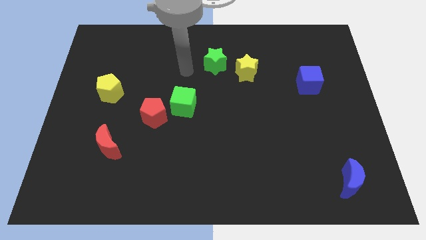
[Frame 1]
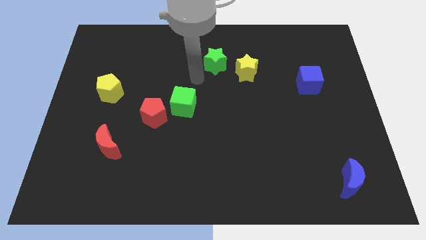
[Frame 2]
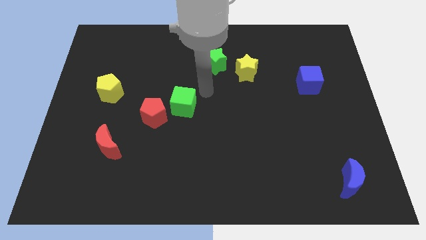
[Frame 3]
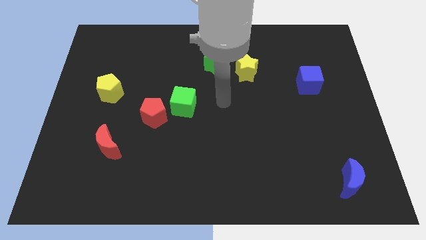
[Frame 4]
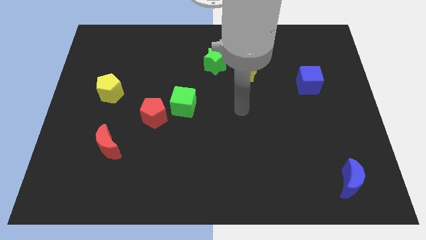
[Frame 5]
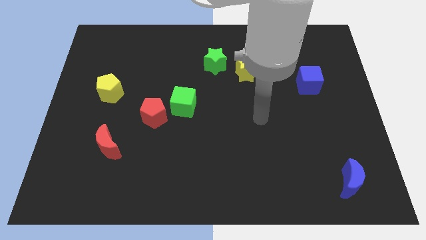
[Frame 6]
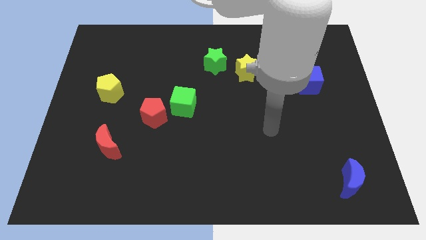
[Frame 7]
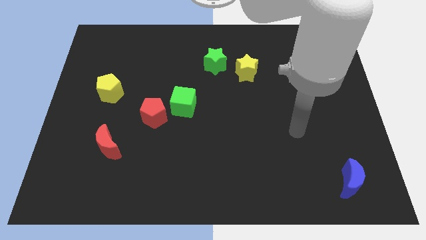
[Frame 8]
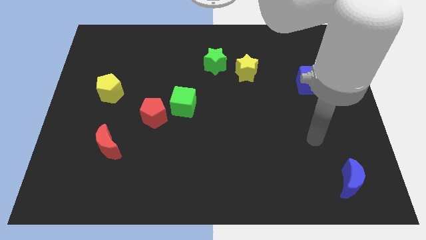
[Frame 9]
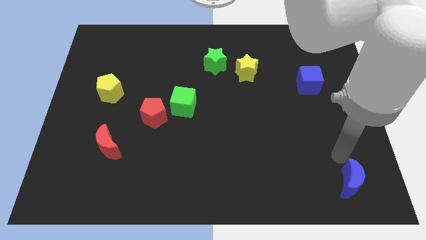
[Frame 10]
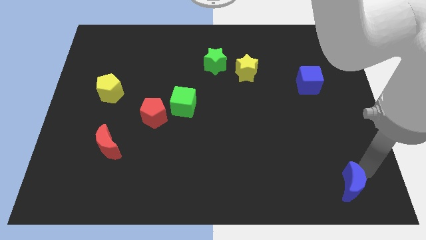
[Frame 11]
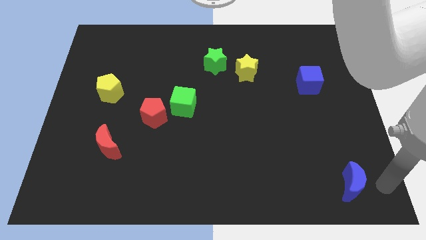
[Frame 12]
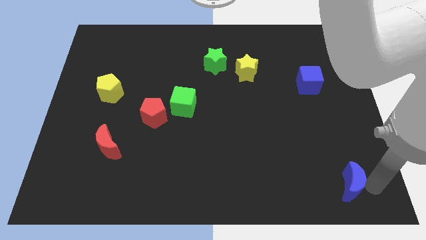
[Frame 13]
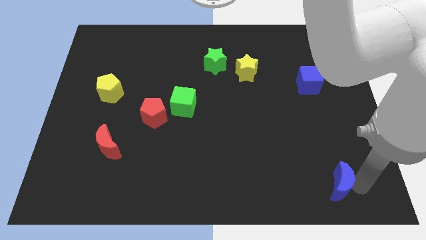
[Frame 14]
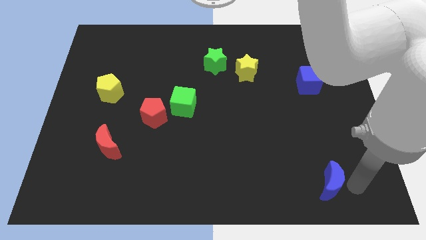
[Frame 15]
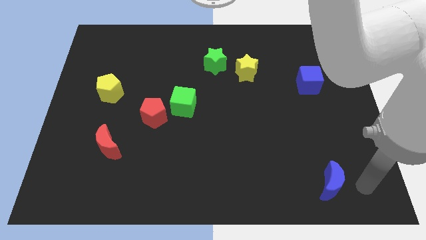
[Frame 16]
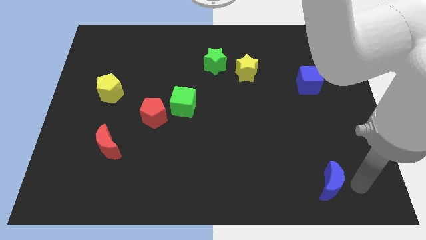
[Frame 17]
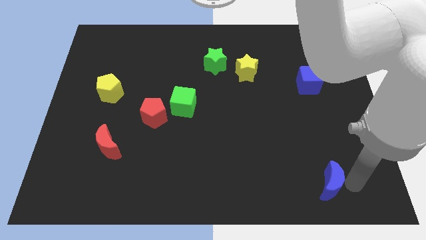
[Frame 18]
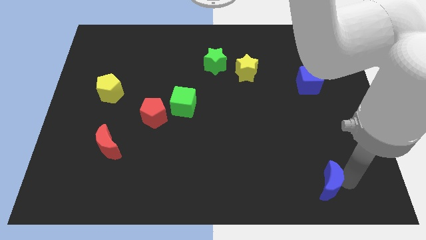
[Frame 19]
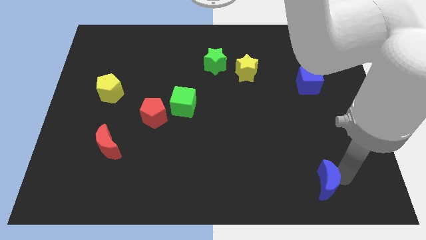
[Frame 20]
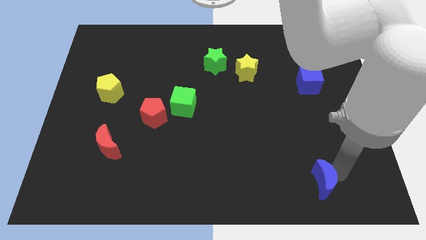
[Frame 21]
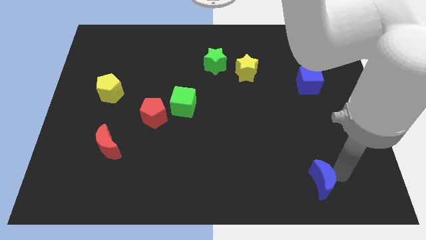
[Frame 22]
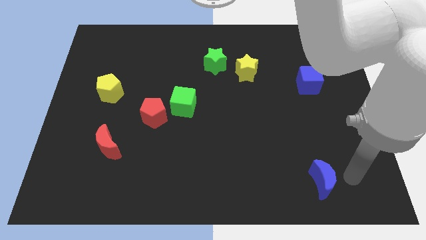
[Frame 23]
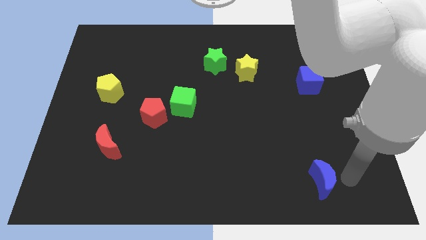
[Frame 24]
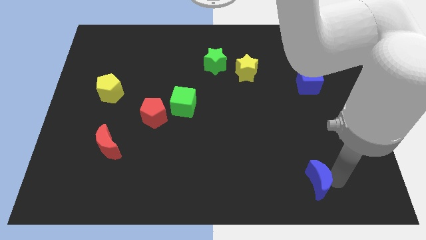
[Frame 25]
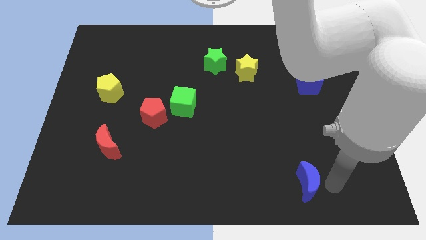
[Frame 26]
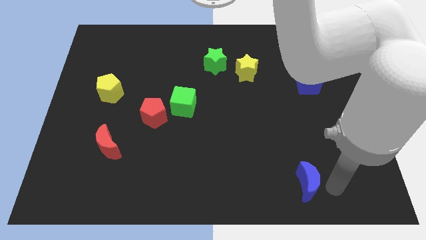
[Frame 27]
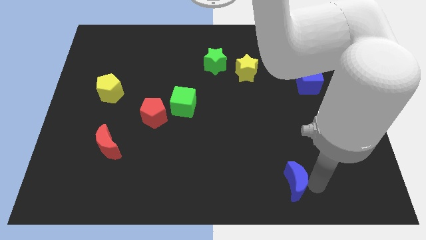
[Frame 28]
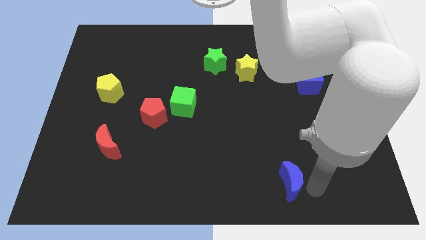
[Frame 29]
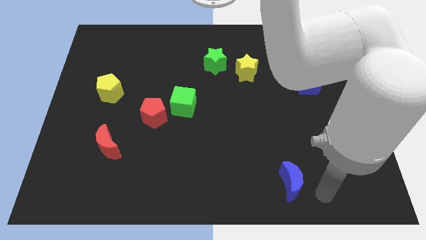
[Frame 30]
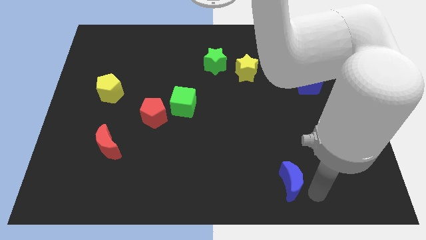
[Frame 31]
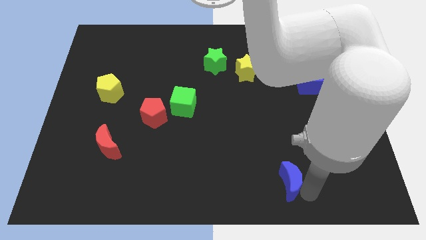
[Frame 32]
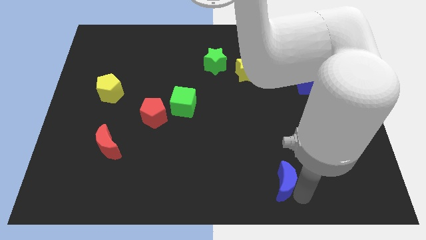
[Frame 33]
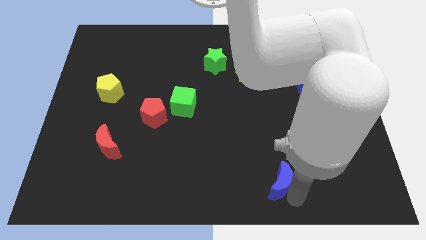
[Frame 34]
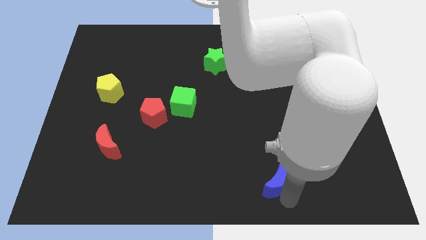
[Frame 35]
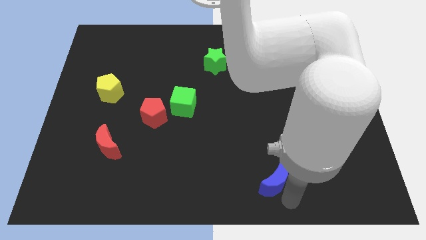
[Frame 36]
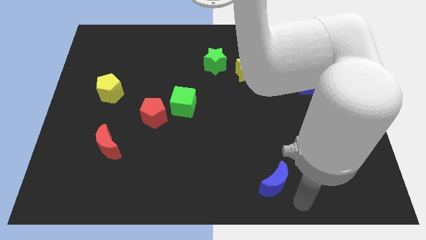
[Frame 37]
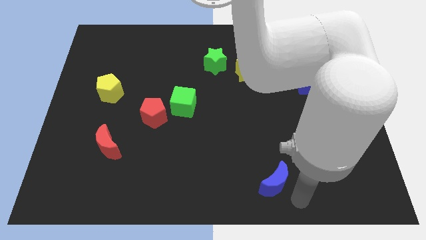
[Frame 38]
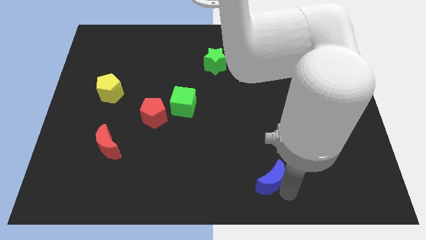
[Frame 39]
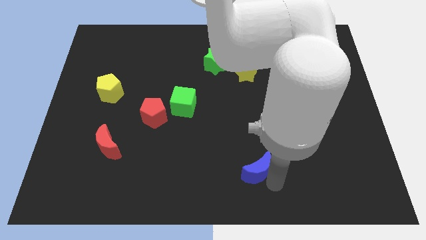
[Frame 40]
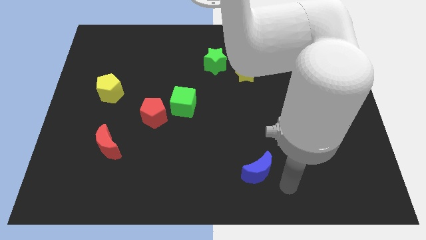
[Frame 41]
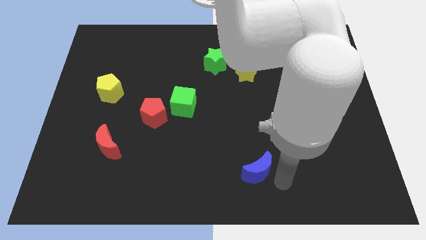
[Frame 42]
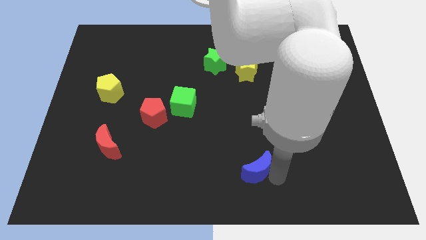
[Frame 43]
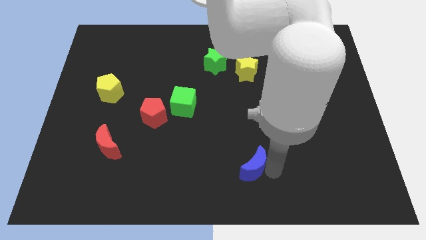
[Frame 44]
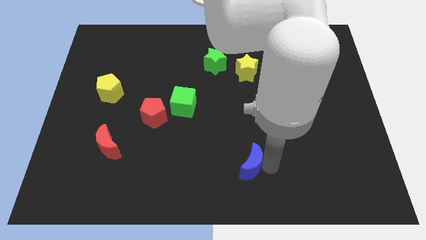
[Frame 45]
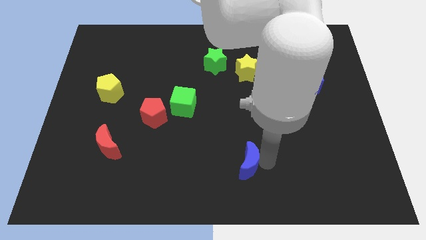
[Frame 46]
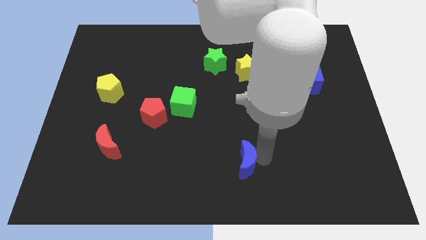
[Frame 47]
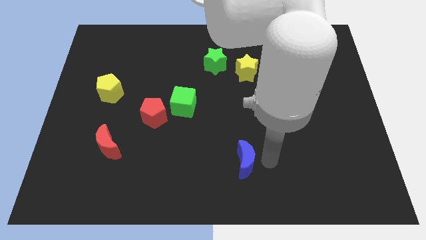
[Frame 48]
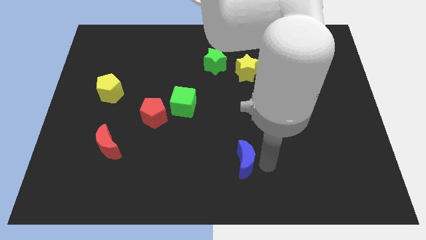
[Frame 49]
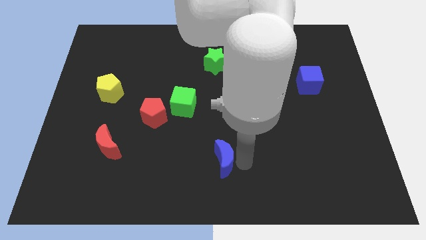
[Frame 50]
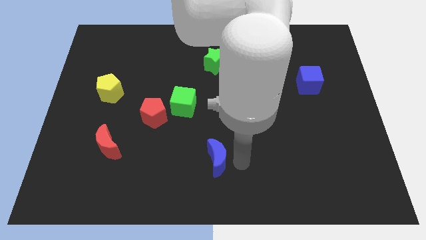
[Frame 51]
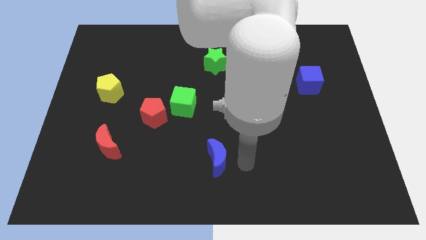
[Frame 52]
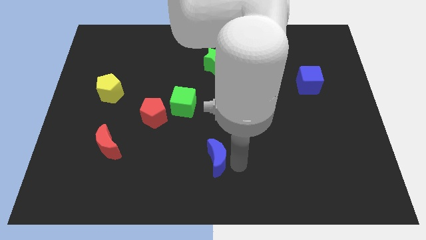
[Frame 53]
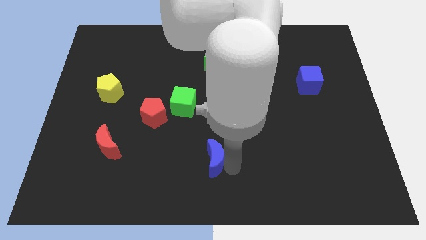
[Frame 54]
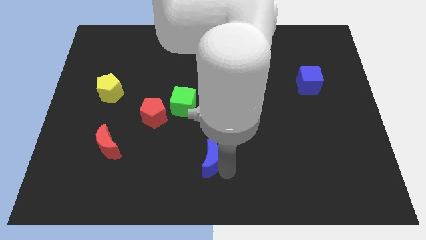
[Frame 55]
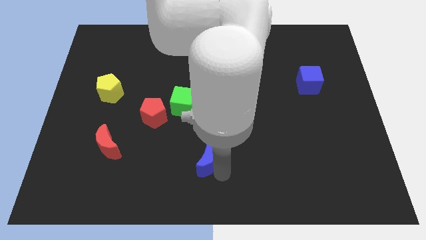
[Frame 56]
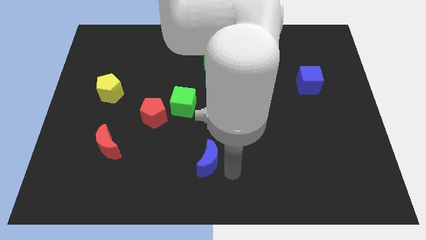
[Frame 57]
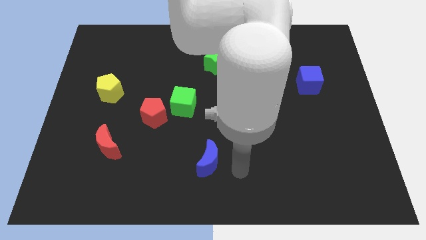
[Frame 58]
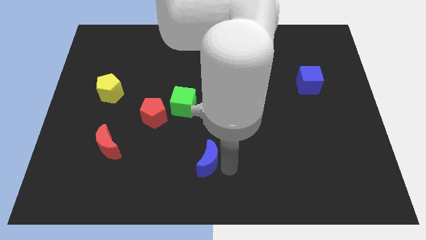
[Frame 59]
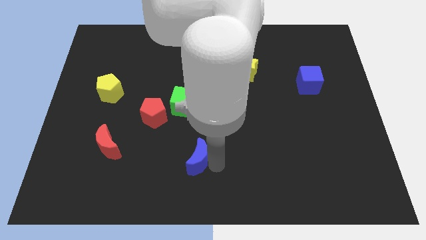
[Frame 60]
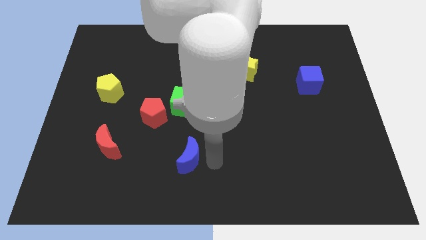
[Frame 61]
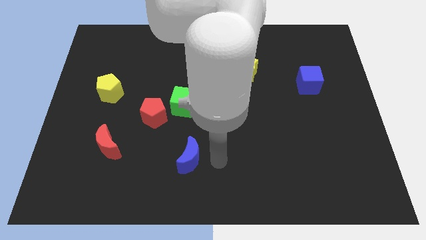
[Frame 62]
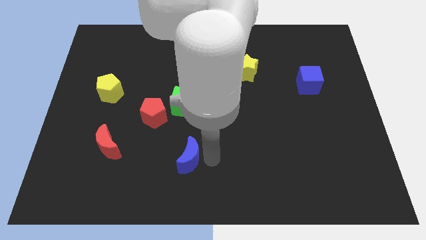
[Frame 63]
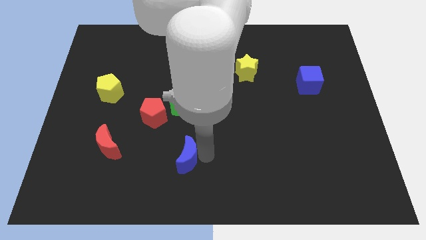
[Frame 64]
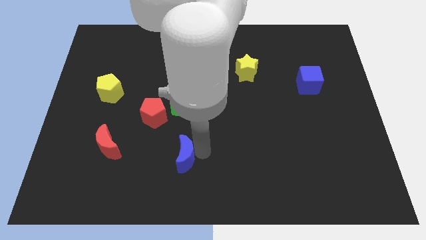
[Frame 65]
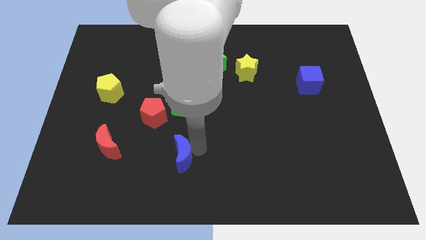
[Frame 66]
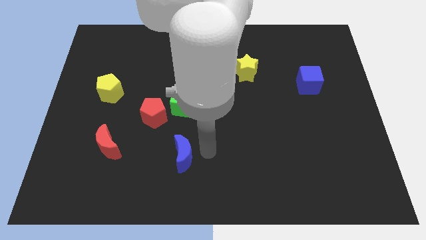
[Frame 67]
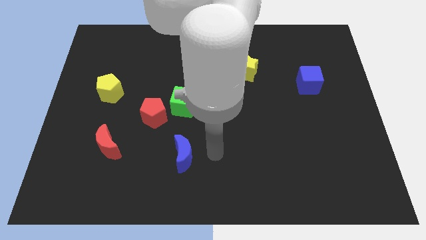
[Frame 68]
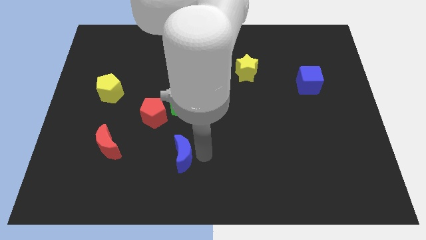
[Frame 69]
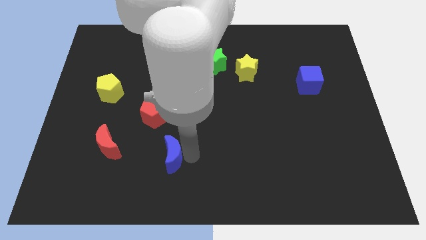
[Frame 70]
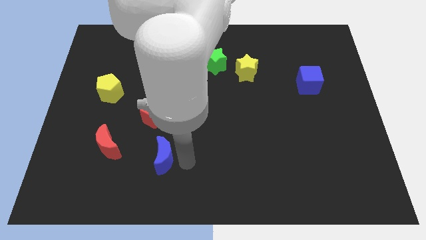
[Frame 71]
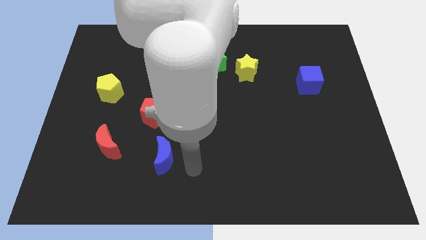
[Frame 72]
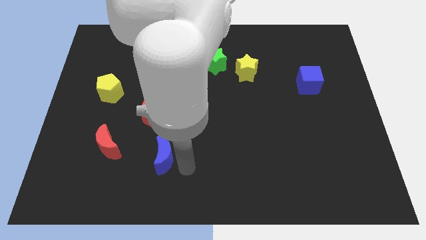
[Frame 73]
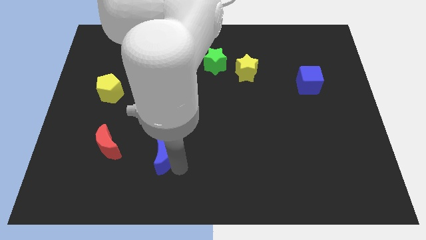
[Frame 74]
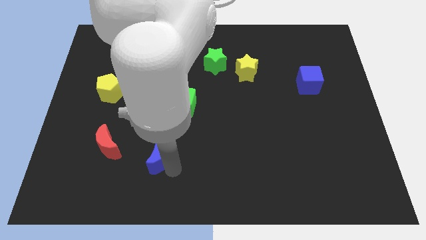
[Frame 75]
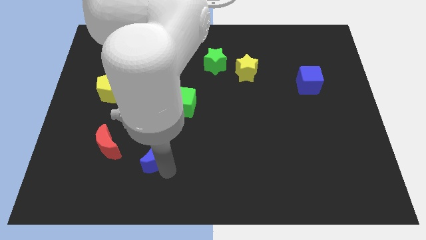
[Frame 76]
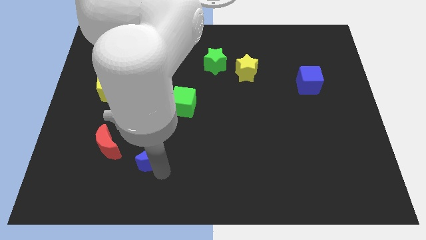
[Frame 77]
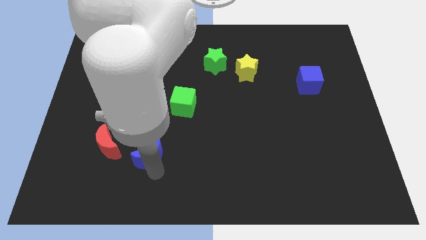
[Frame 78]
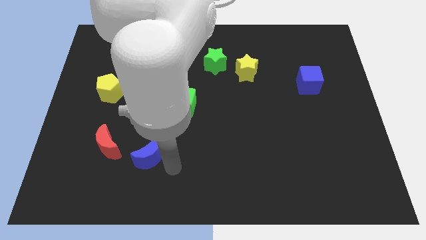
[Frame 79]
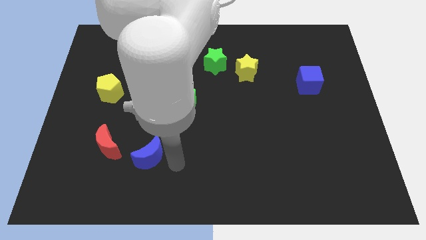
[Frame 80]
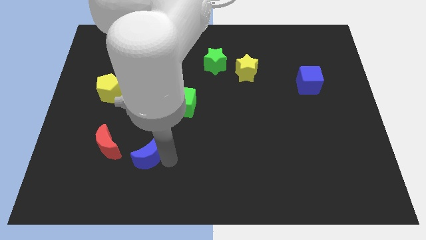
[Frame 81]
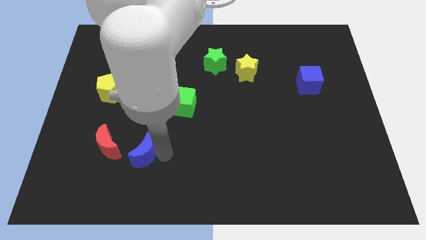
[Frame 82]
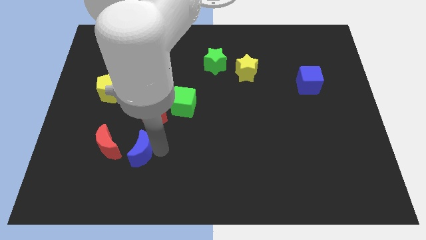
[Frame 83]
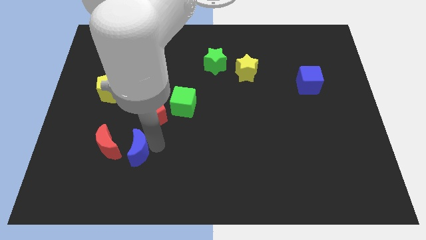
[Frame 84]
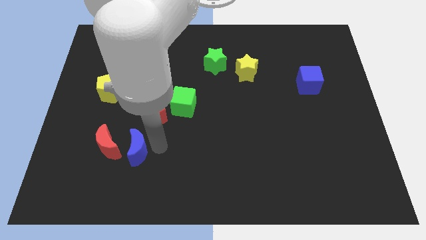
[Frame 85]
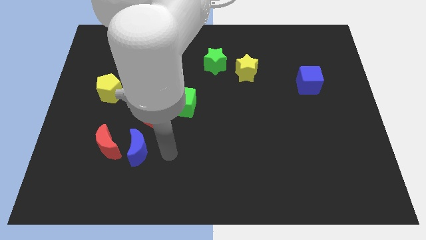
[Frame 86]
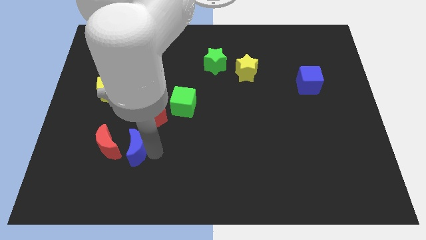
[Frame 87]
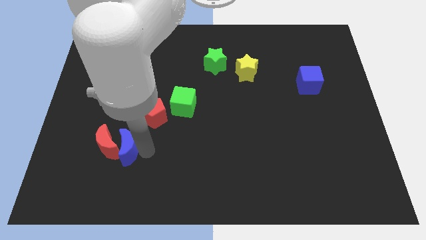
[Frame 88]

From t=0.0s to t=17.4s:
move the blue moon towards the red moon
